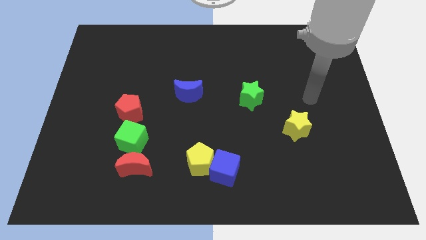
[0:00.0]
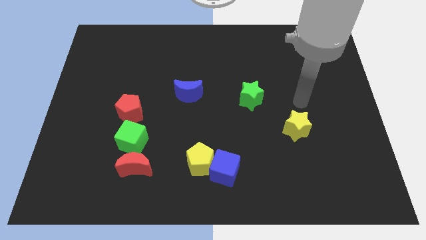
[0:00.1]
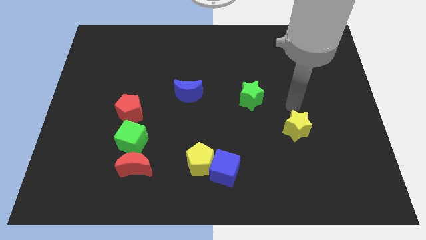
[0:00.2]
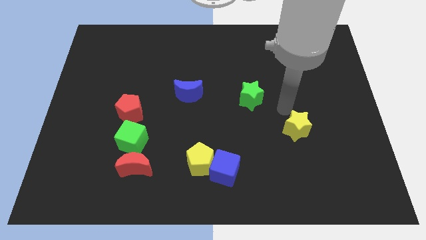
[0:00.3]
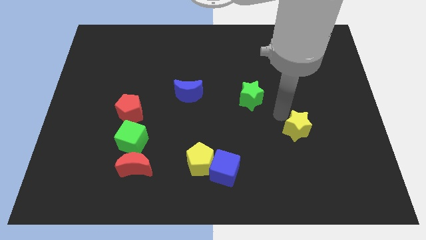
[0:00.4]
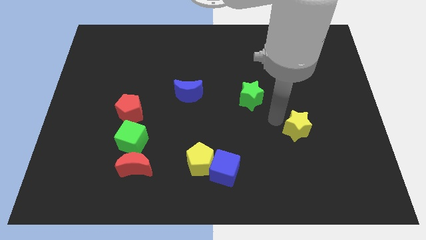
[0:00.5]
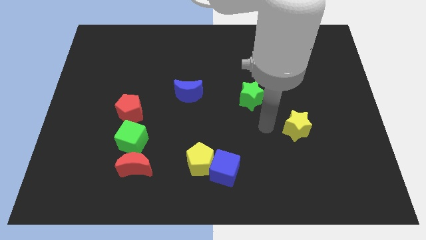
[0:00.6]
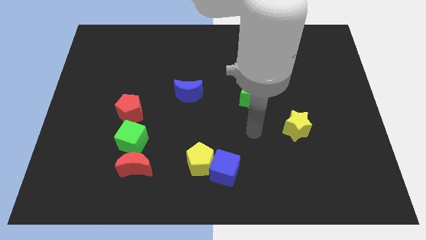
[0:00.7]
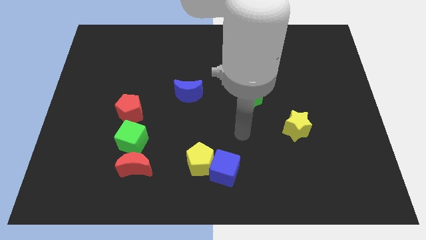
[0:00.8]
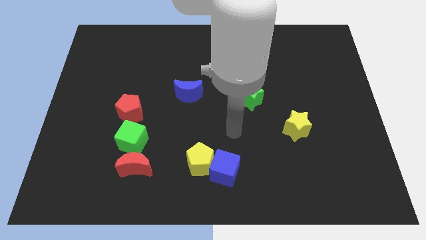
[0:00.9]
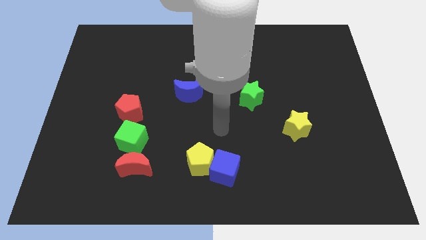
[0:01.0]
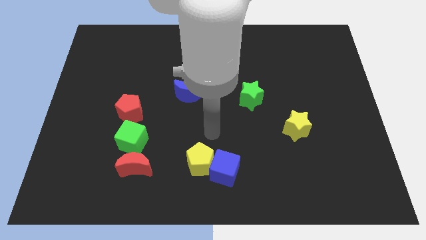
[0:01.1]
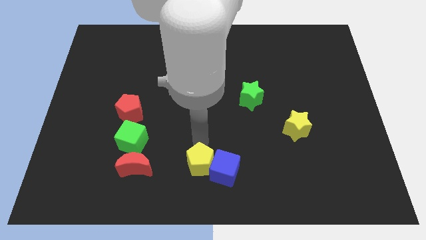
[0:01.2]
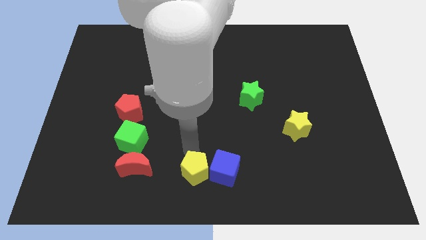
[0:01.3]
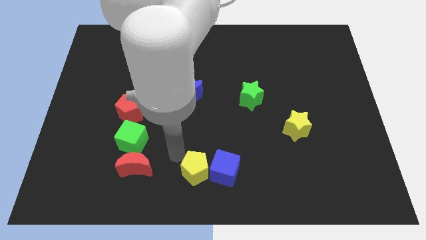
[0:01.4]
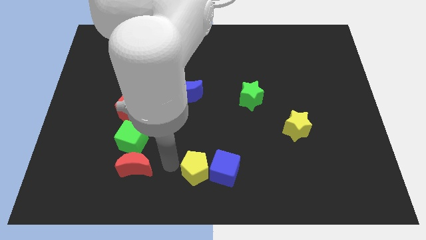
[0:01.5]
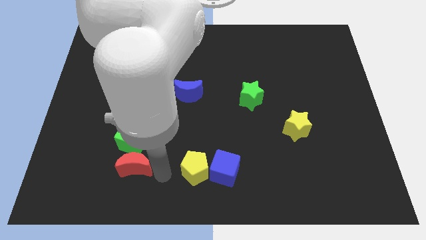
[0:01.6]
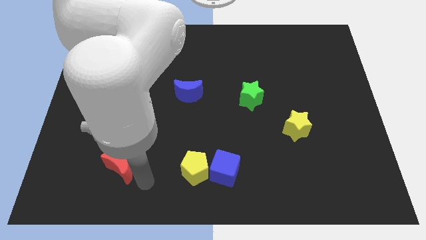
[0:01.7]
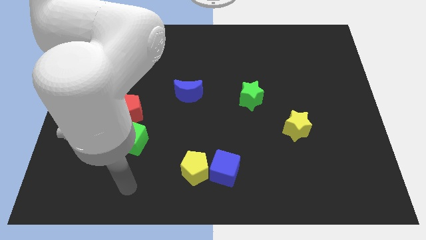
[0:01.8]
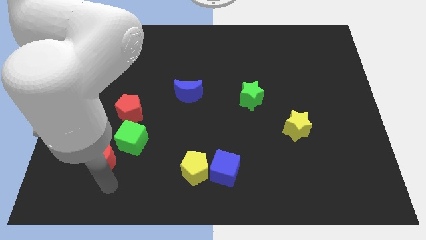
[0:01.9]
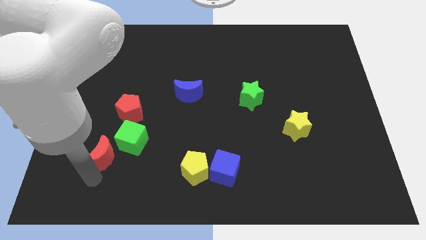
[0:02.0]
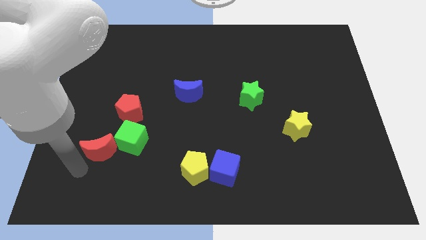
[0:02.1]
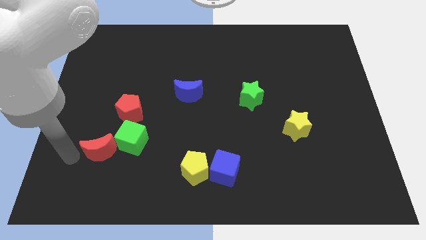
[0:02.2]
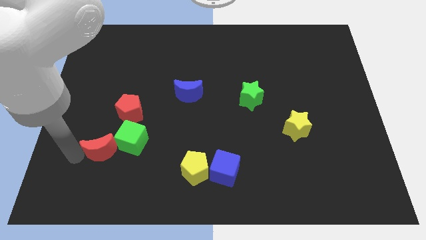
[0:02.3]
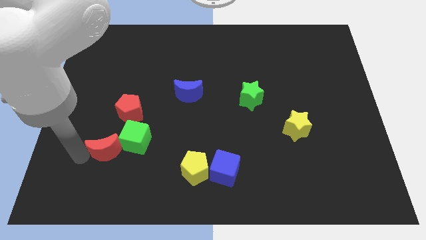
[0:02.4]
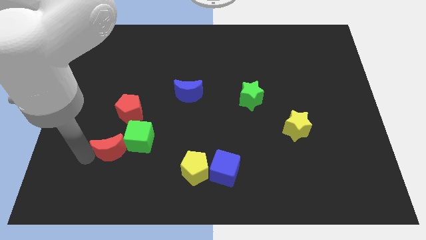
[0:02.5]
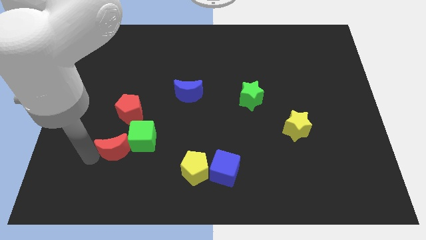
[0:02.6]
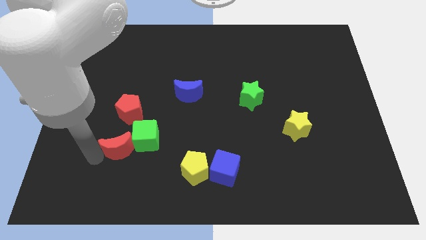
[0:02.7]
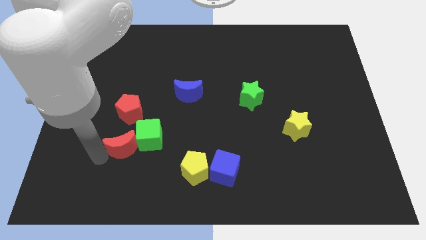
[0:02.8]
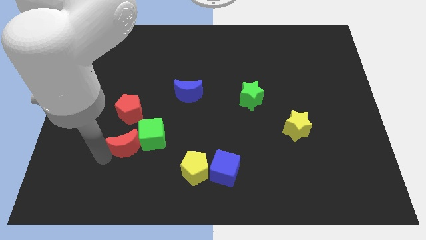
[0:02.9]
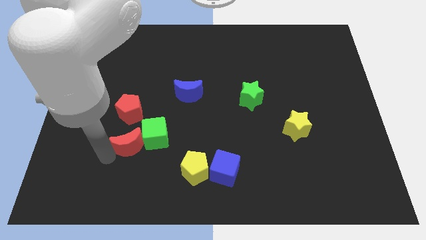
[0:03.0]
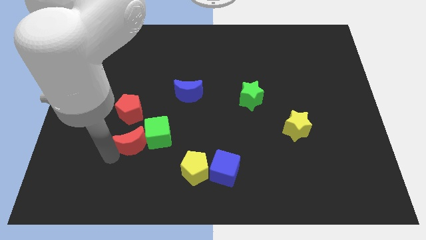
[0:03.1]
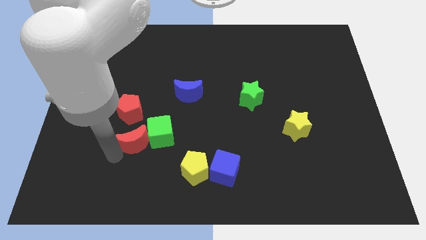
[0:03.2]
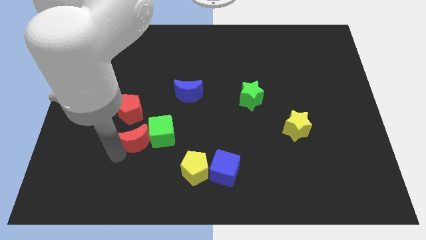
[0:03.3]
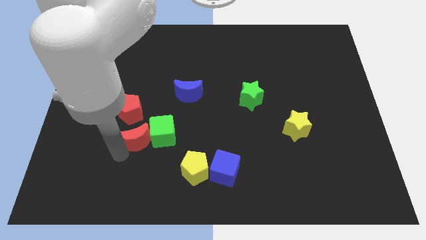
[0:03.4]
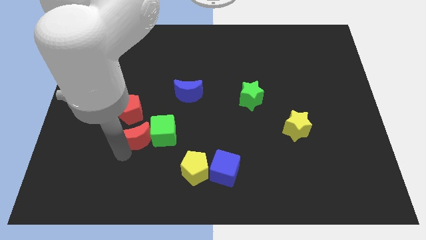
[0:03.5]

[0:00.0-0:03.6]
slide the red moon up a little

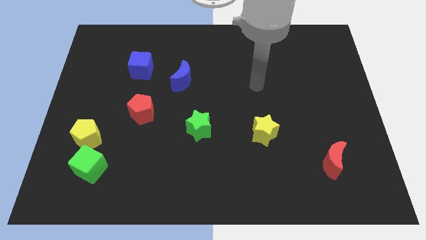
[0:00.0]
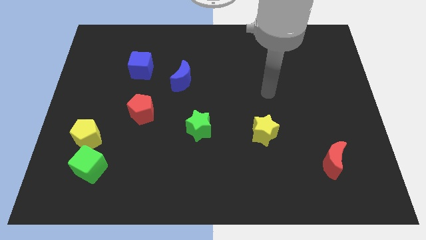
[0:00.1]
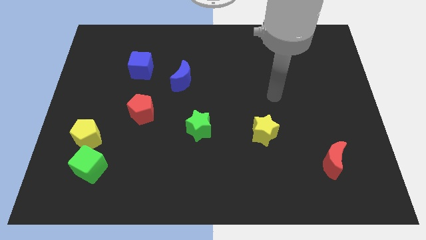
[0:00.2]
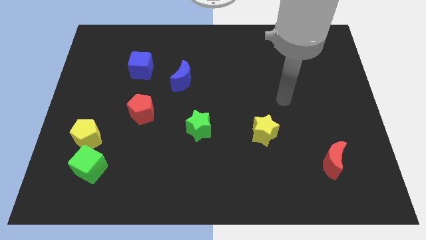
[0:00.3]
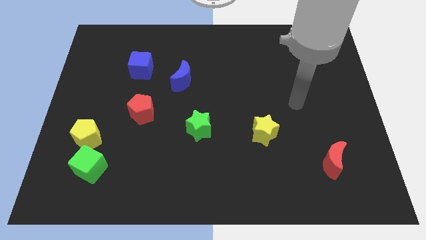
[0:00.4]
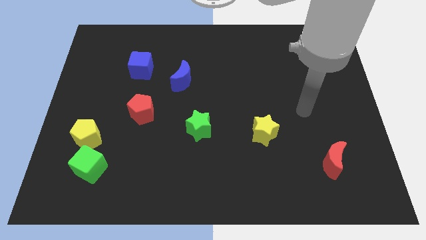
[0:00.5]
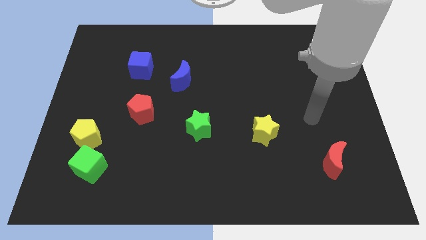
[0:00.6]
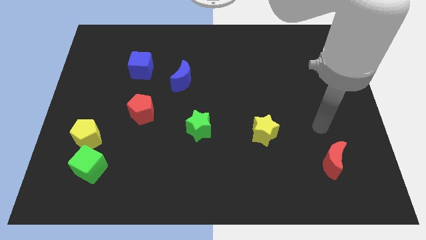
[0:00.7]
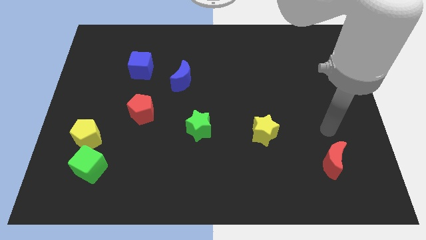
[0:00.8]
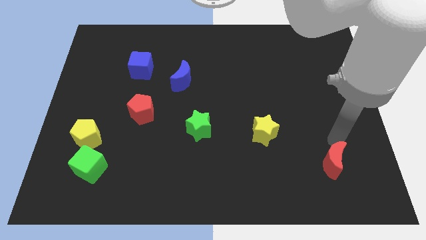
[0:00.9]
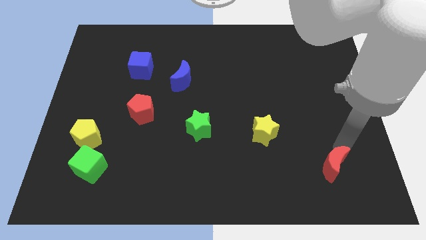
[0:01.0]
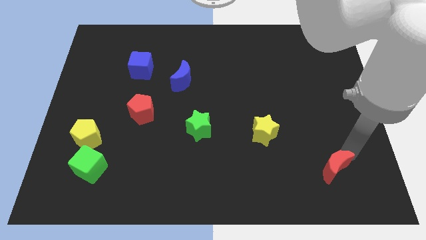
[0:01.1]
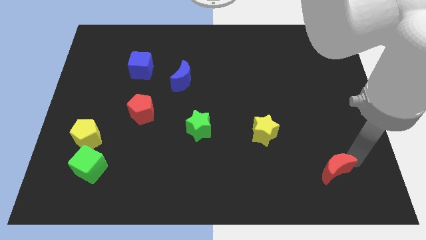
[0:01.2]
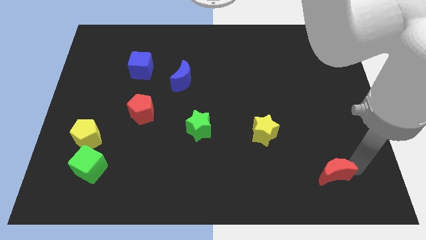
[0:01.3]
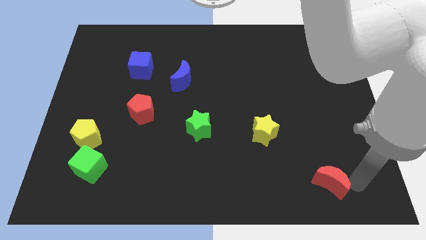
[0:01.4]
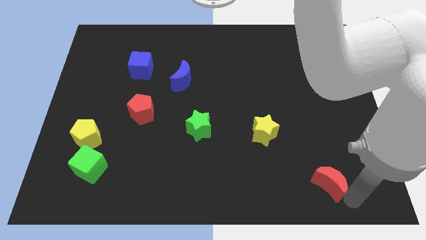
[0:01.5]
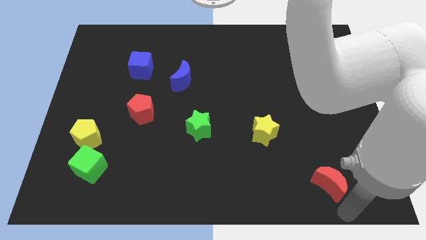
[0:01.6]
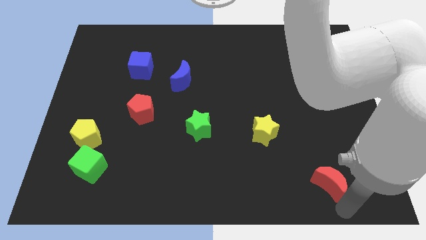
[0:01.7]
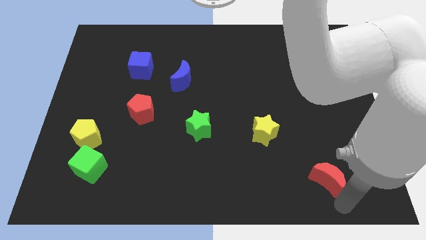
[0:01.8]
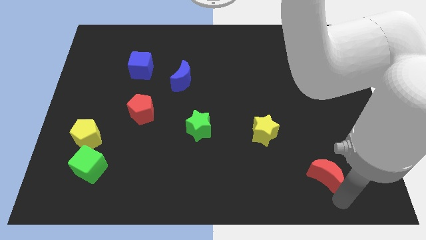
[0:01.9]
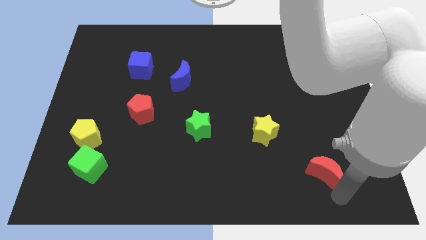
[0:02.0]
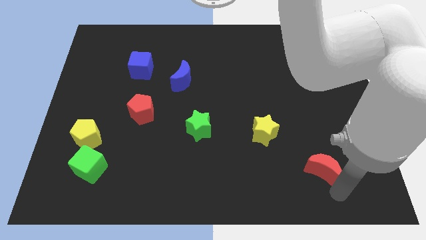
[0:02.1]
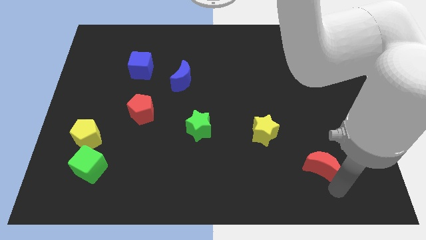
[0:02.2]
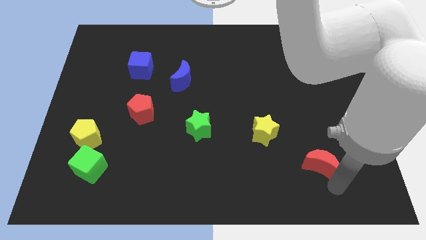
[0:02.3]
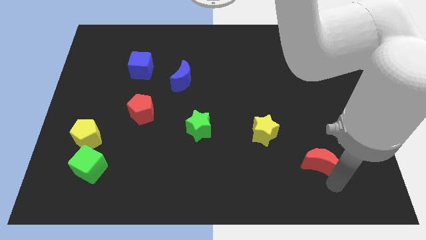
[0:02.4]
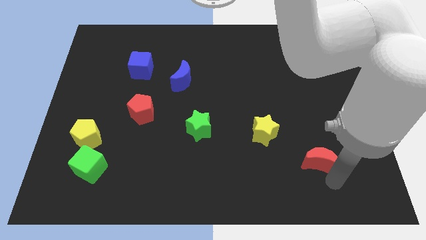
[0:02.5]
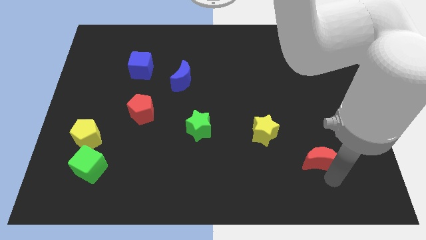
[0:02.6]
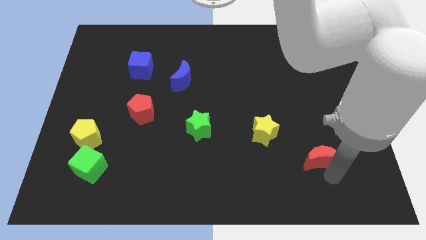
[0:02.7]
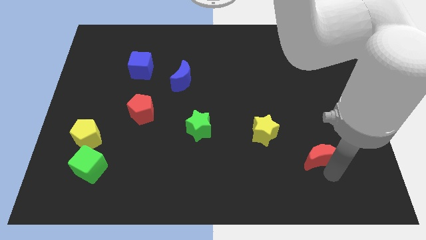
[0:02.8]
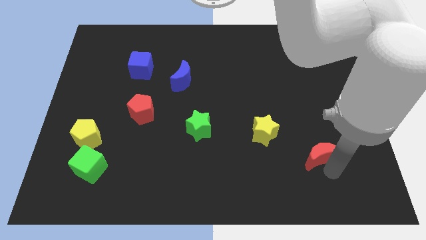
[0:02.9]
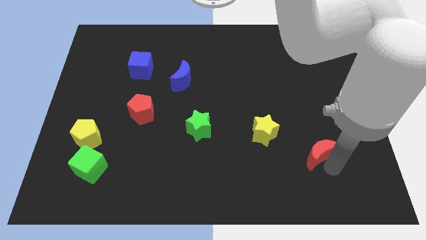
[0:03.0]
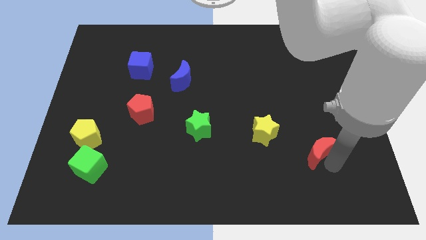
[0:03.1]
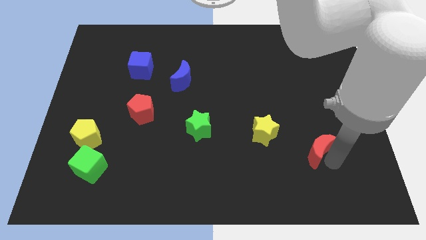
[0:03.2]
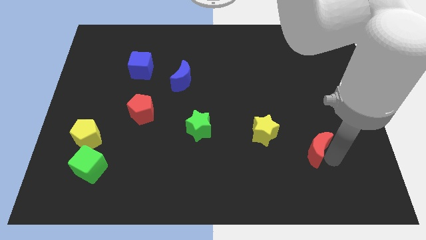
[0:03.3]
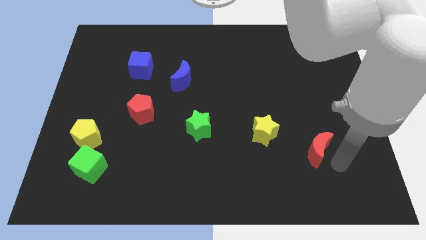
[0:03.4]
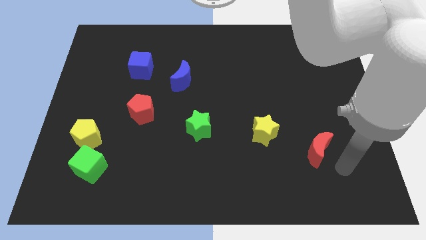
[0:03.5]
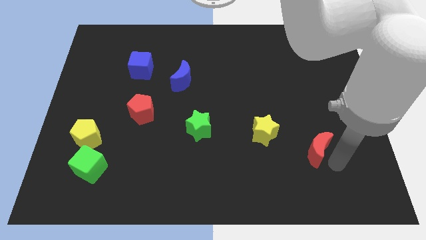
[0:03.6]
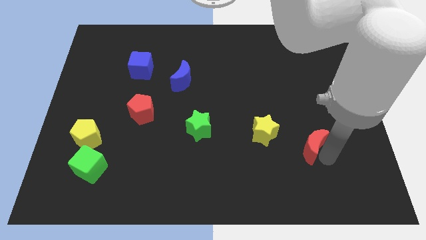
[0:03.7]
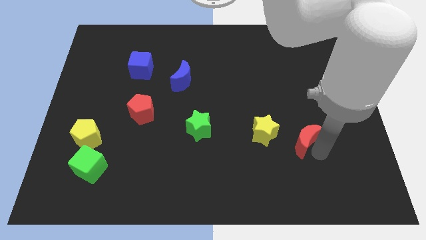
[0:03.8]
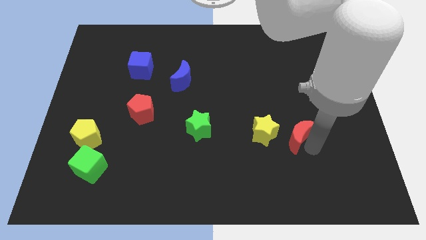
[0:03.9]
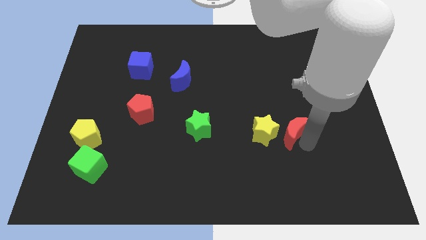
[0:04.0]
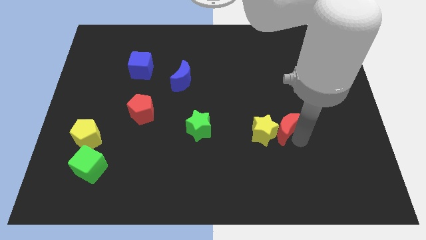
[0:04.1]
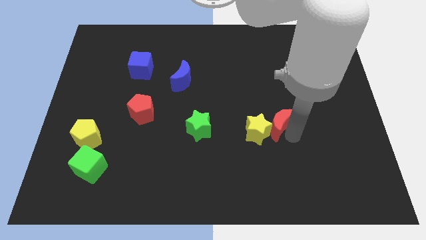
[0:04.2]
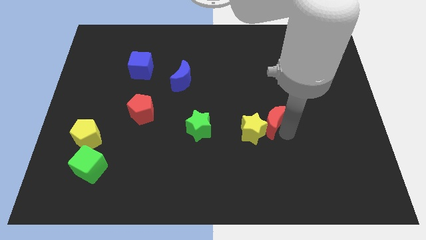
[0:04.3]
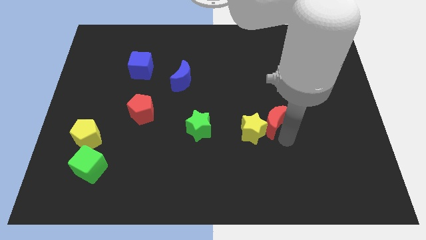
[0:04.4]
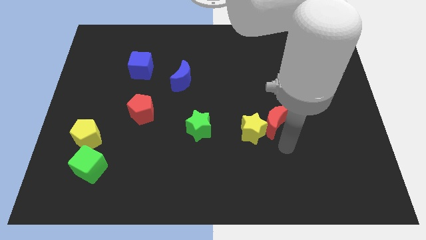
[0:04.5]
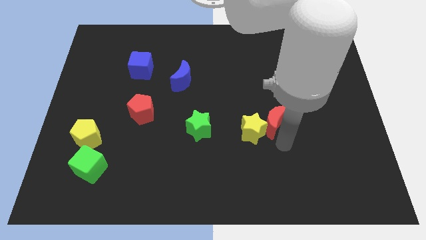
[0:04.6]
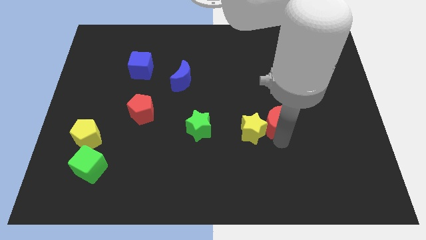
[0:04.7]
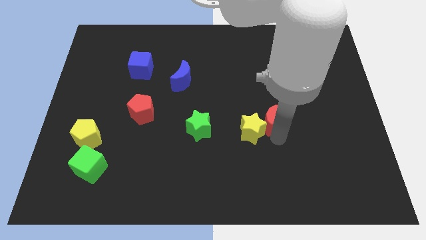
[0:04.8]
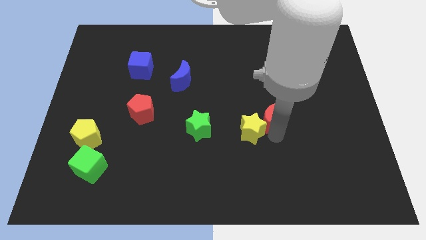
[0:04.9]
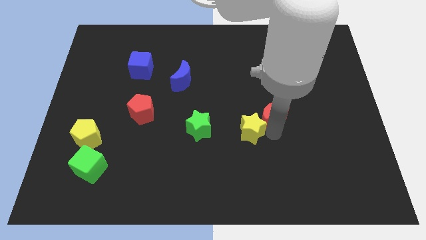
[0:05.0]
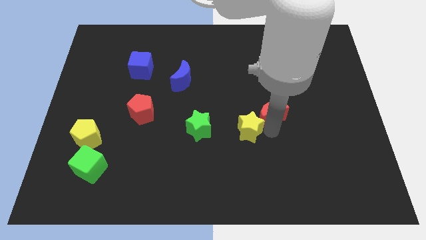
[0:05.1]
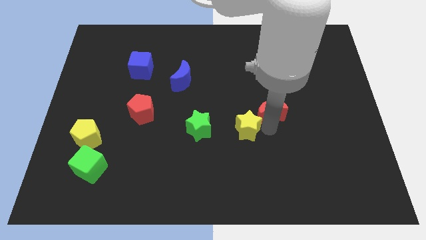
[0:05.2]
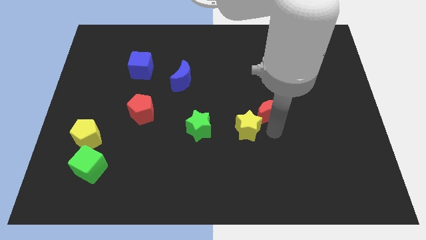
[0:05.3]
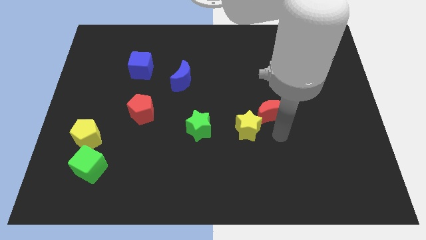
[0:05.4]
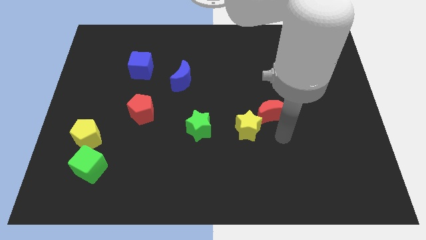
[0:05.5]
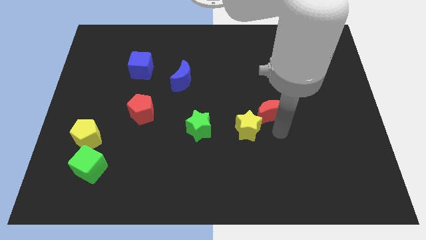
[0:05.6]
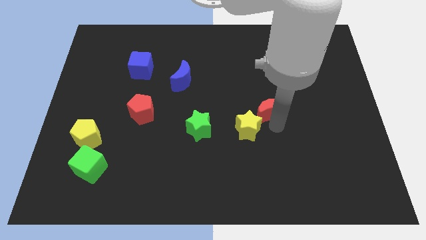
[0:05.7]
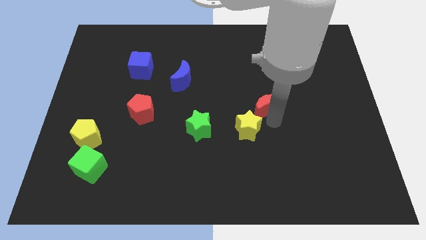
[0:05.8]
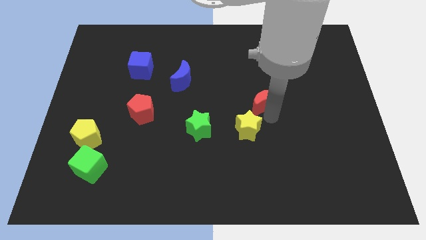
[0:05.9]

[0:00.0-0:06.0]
move the red moon upwards and to the left
